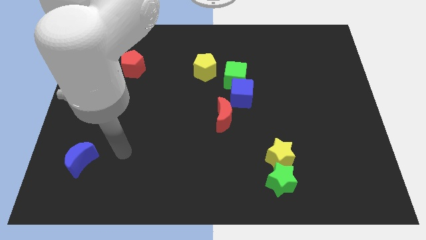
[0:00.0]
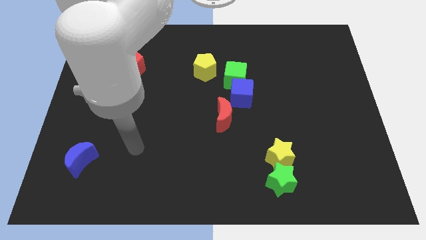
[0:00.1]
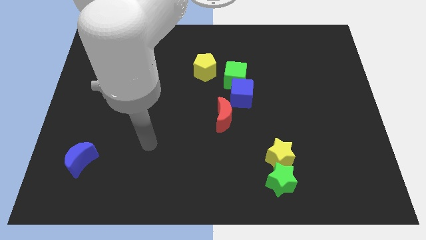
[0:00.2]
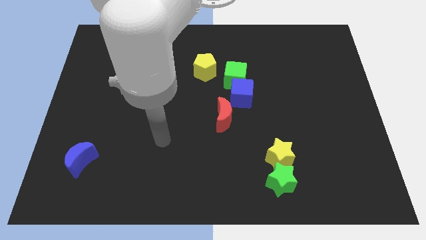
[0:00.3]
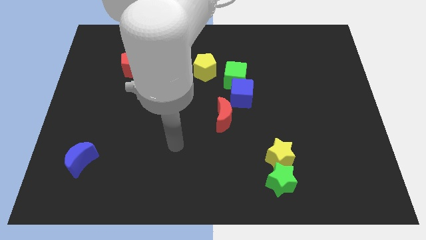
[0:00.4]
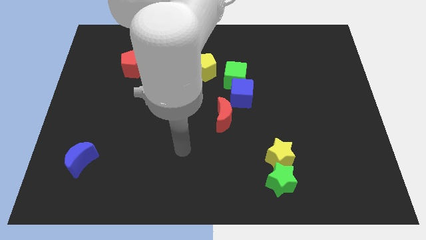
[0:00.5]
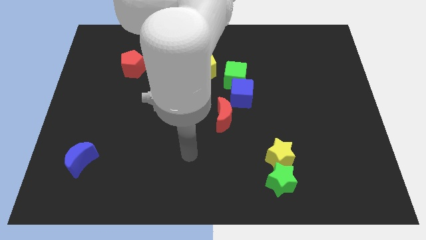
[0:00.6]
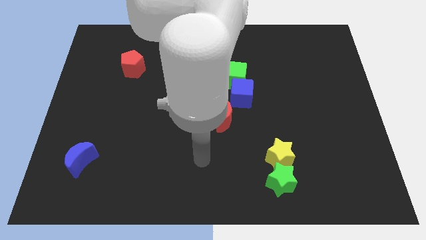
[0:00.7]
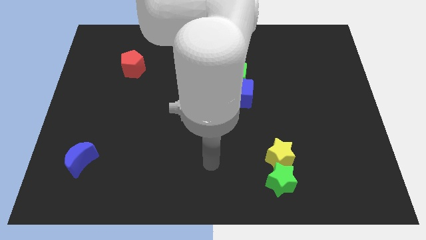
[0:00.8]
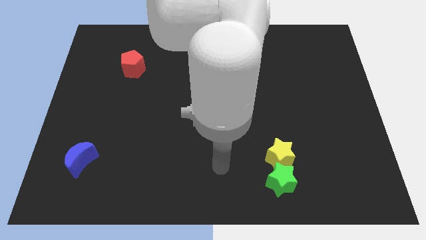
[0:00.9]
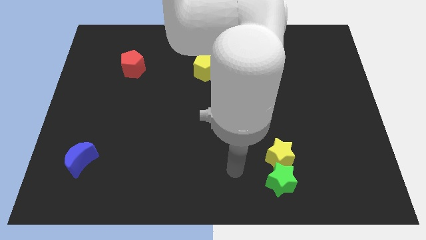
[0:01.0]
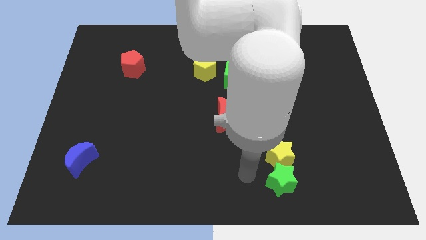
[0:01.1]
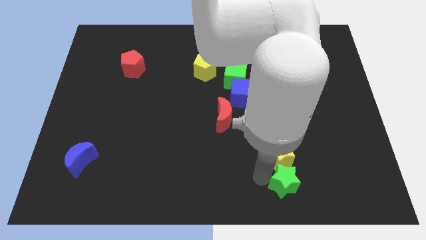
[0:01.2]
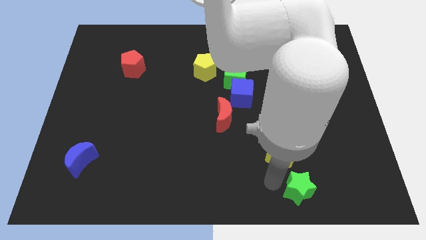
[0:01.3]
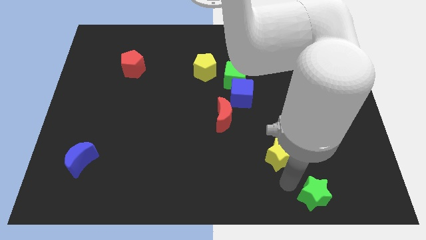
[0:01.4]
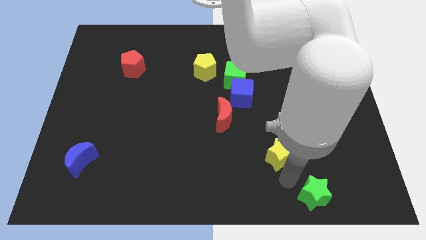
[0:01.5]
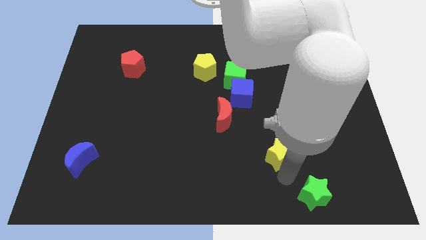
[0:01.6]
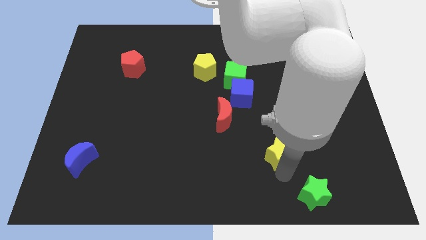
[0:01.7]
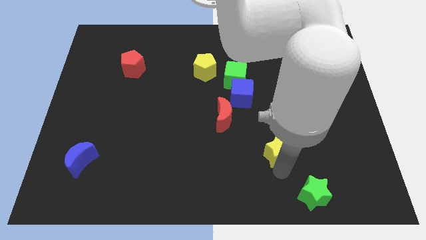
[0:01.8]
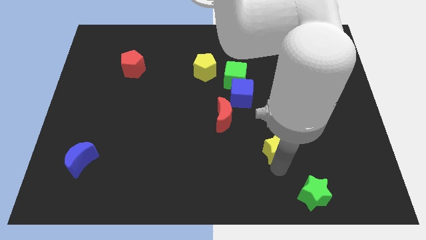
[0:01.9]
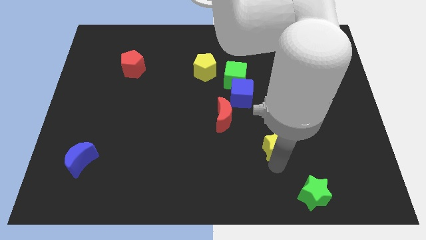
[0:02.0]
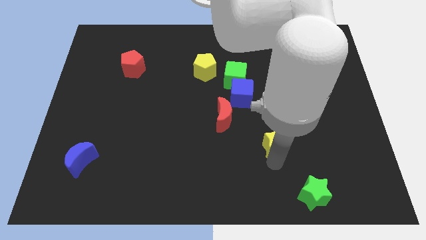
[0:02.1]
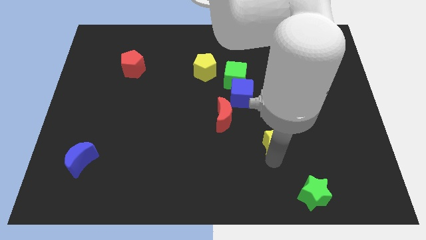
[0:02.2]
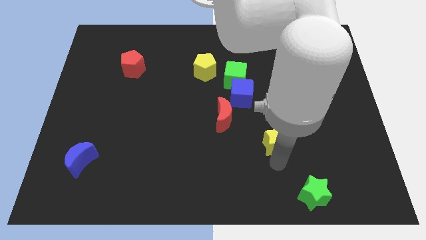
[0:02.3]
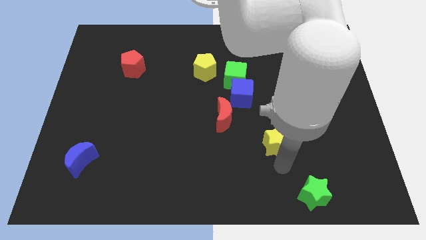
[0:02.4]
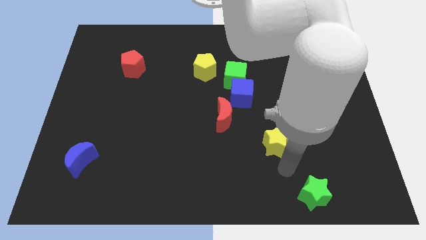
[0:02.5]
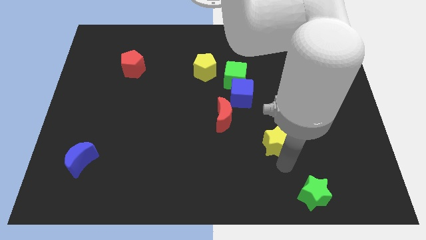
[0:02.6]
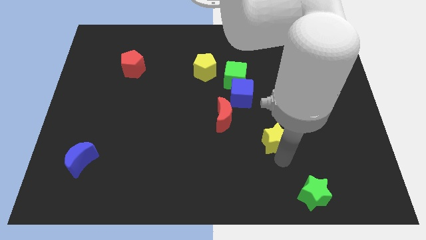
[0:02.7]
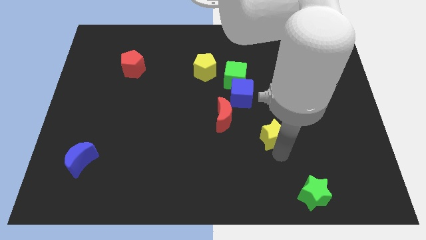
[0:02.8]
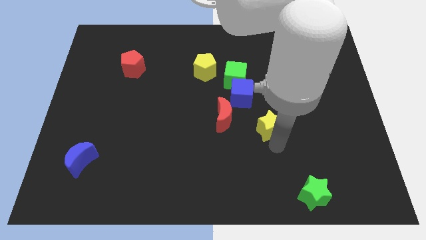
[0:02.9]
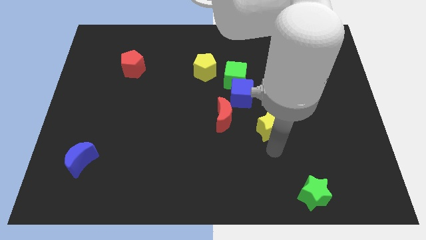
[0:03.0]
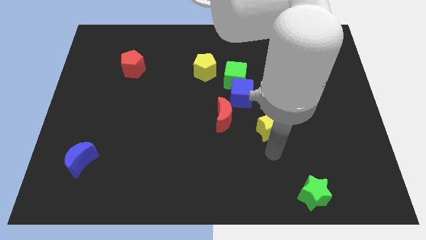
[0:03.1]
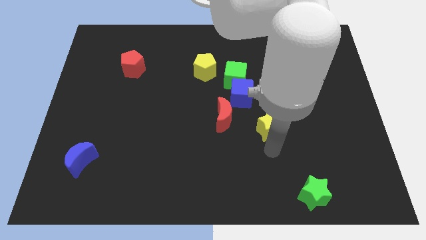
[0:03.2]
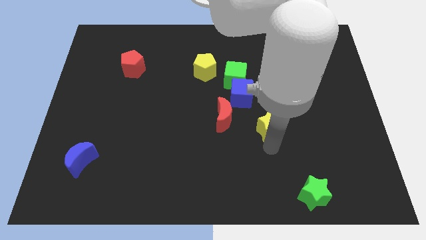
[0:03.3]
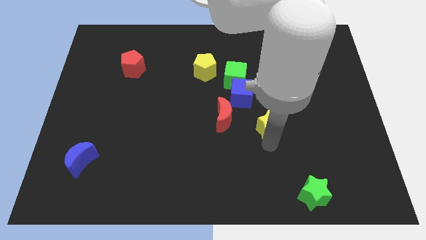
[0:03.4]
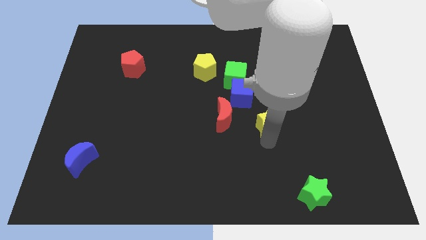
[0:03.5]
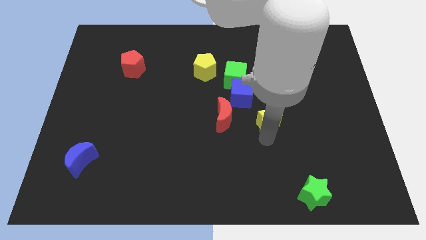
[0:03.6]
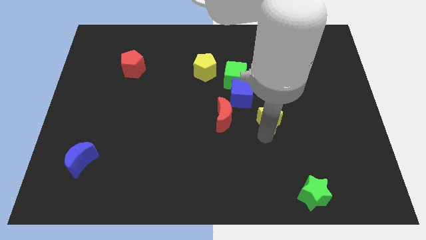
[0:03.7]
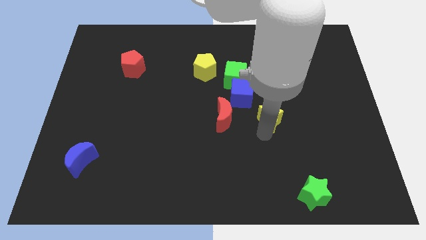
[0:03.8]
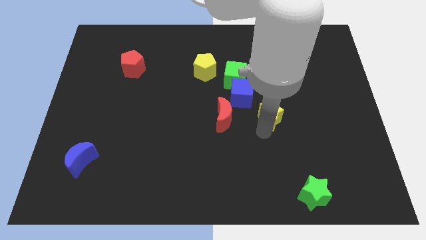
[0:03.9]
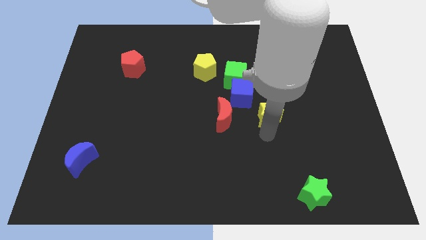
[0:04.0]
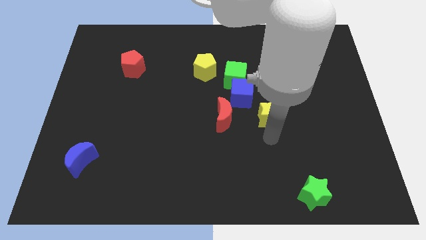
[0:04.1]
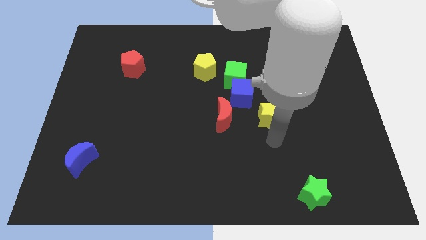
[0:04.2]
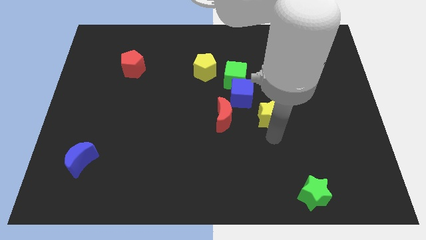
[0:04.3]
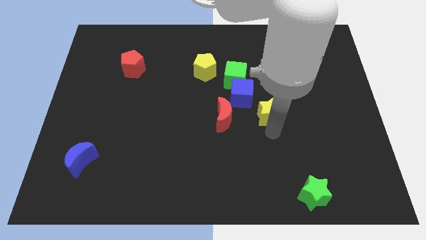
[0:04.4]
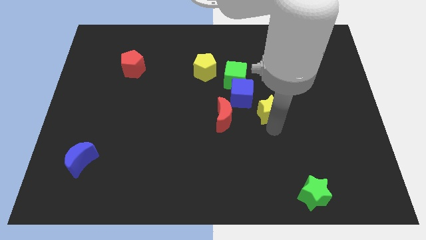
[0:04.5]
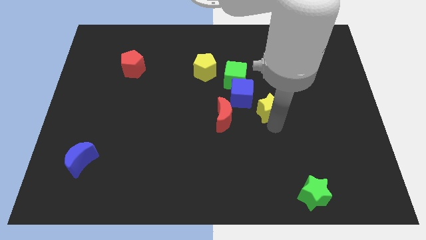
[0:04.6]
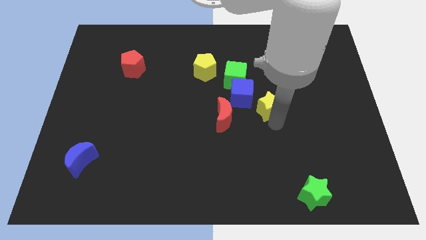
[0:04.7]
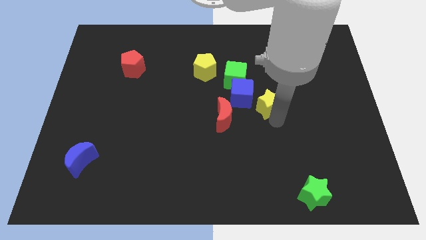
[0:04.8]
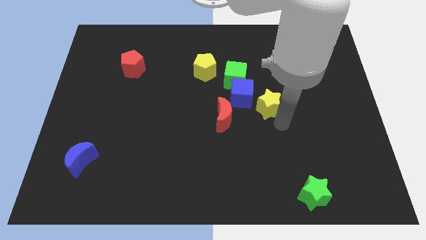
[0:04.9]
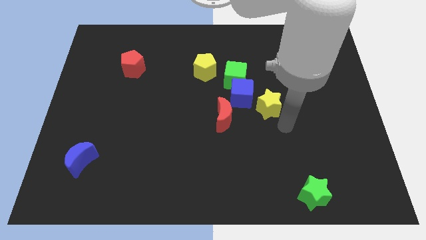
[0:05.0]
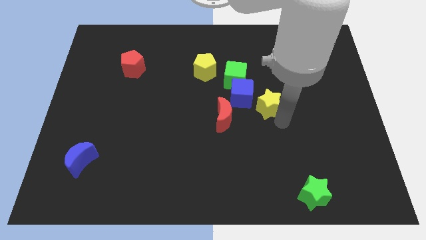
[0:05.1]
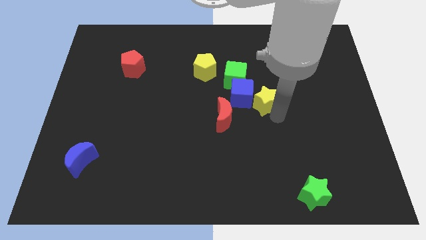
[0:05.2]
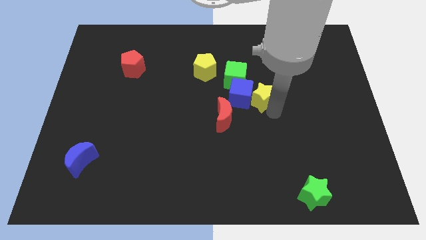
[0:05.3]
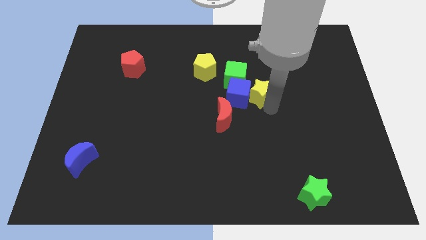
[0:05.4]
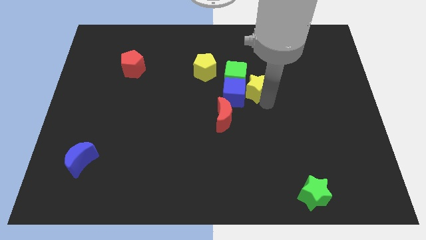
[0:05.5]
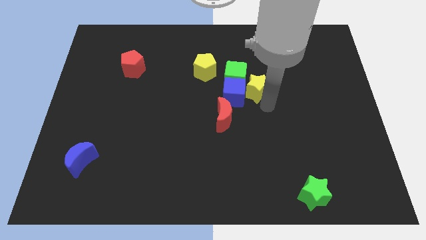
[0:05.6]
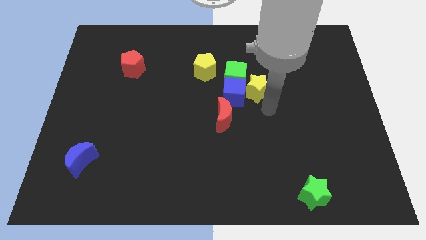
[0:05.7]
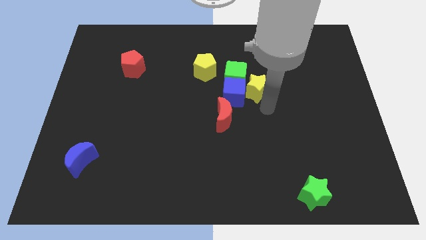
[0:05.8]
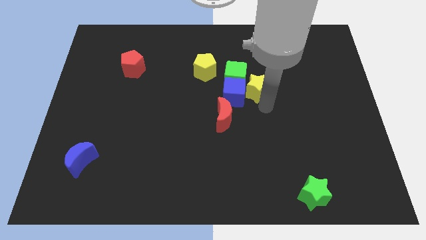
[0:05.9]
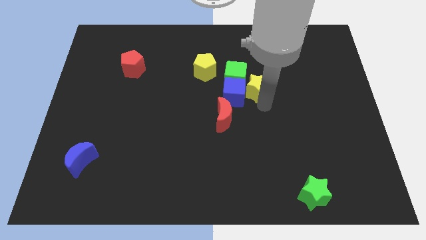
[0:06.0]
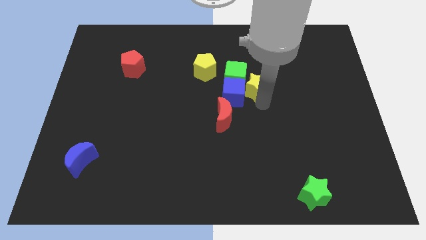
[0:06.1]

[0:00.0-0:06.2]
put the yellow star next to the green cube
